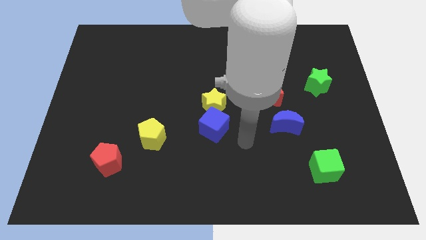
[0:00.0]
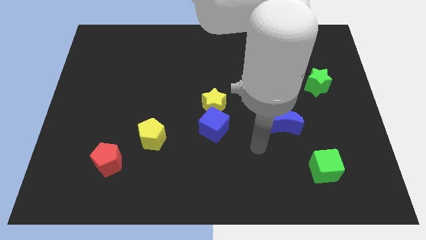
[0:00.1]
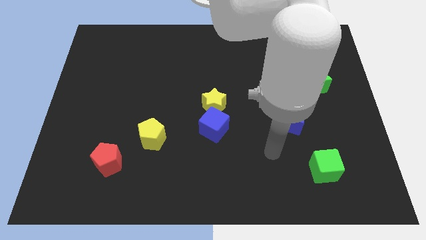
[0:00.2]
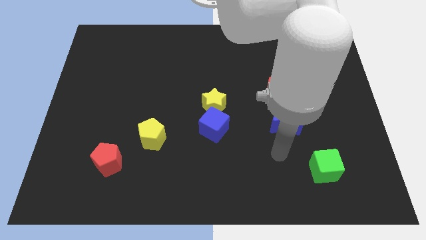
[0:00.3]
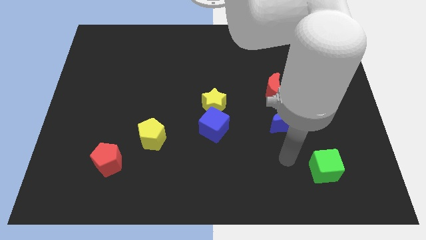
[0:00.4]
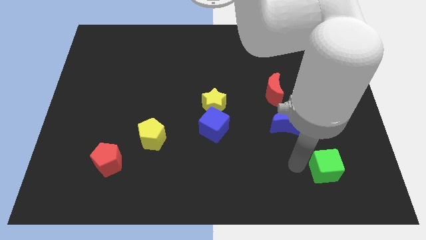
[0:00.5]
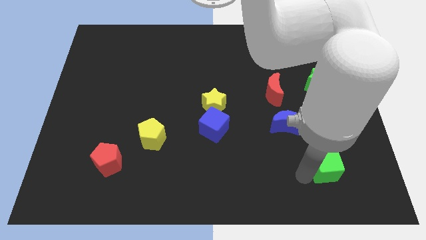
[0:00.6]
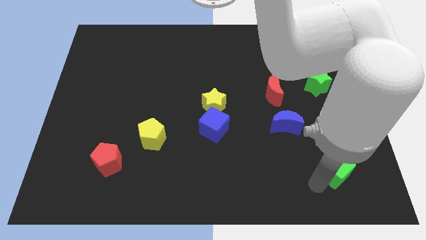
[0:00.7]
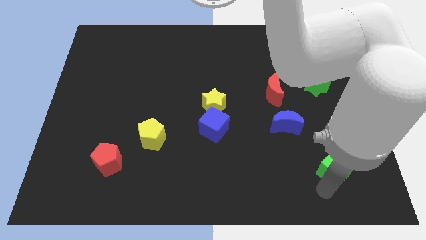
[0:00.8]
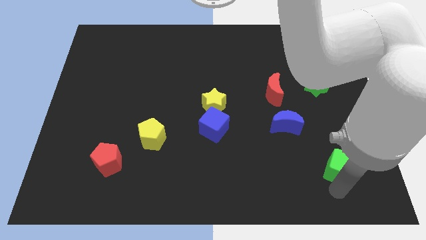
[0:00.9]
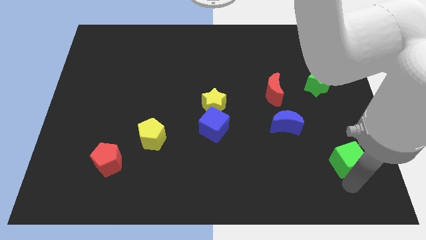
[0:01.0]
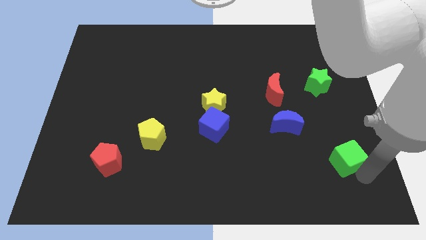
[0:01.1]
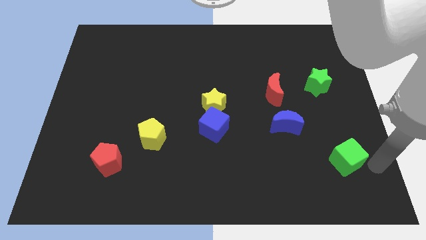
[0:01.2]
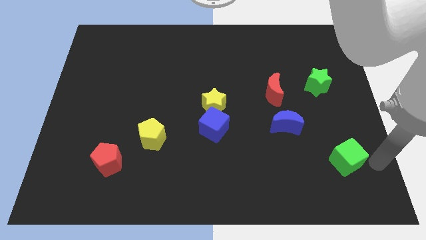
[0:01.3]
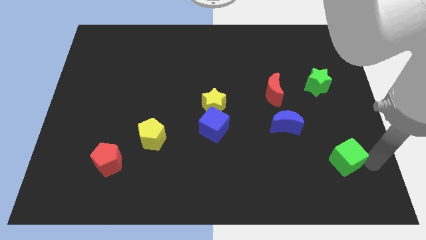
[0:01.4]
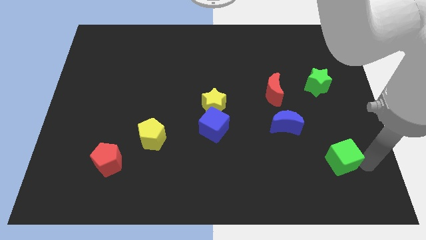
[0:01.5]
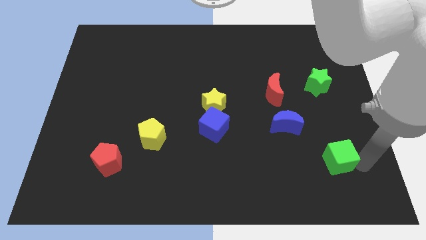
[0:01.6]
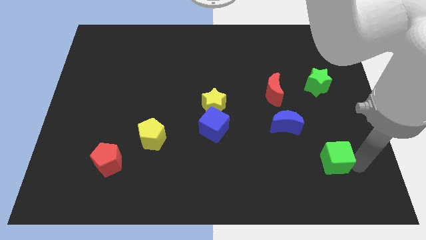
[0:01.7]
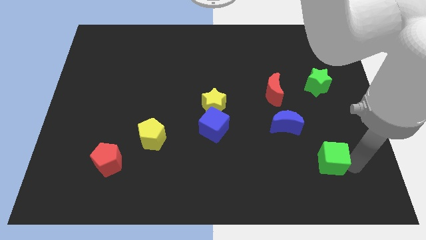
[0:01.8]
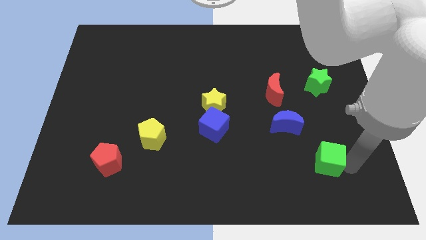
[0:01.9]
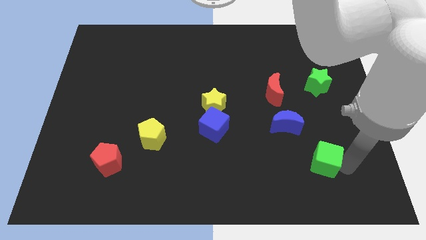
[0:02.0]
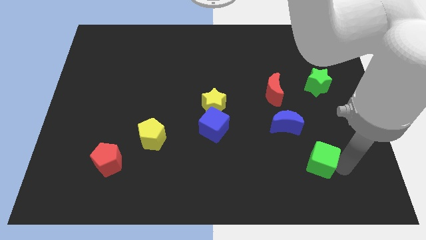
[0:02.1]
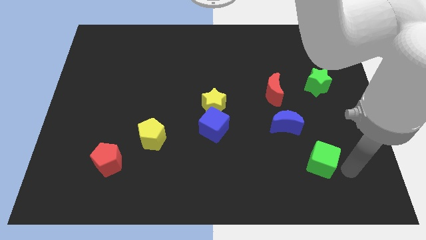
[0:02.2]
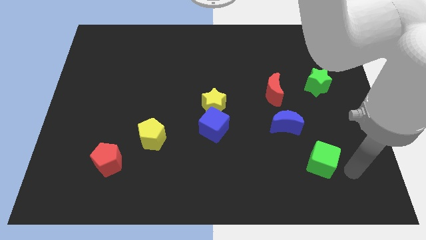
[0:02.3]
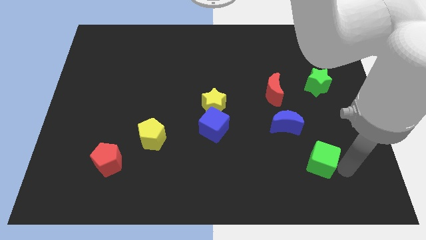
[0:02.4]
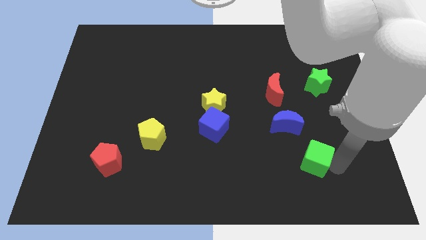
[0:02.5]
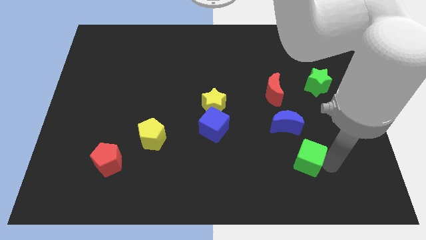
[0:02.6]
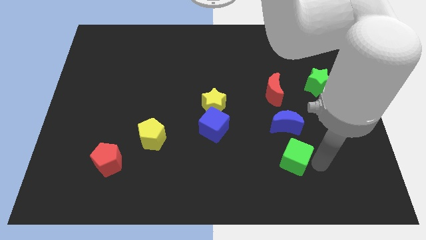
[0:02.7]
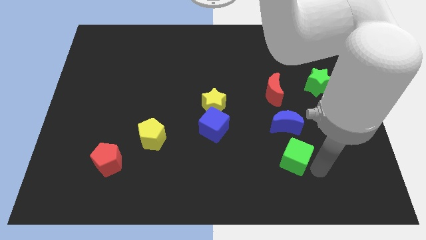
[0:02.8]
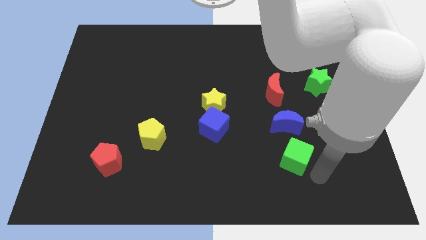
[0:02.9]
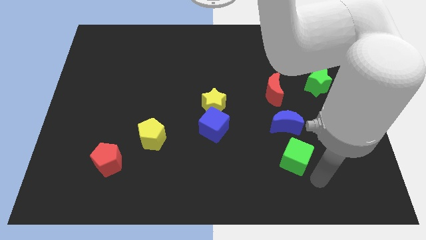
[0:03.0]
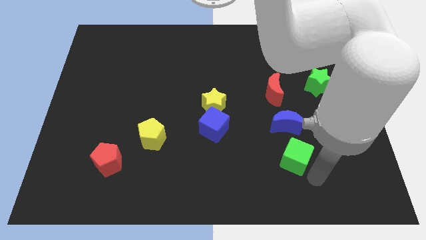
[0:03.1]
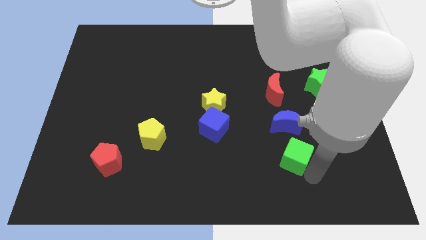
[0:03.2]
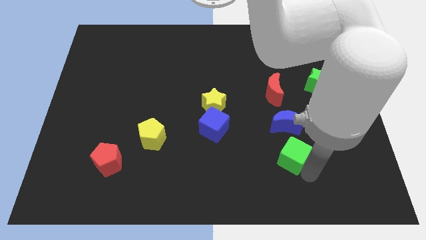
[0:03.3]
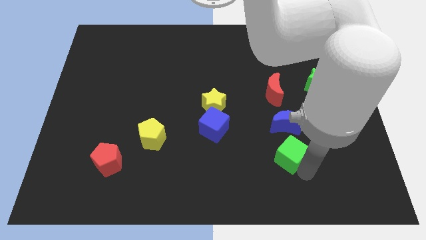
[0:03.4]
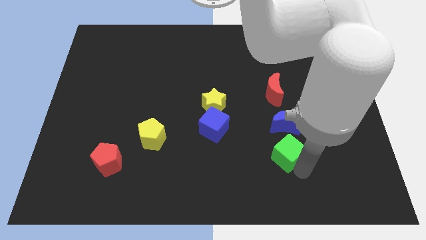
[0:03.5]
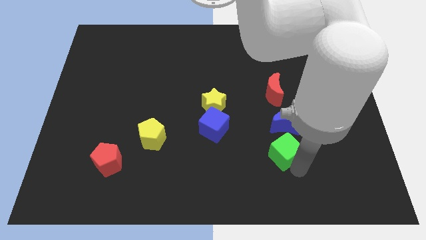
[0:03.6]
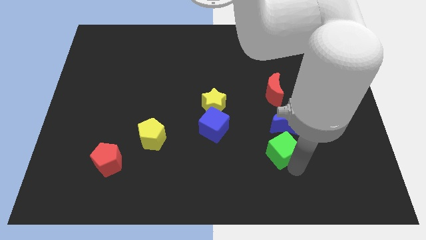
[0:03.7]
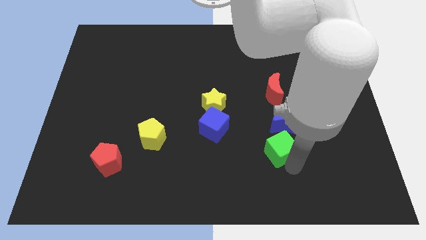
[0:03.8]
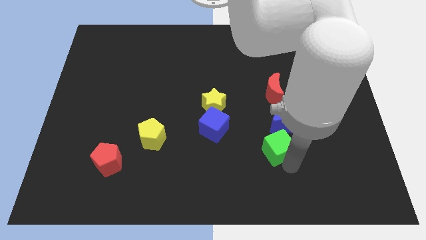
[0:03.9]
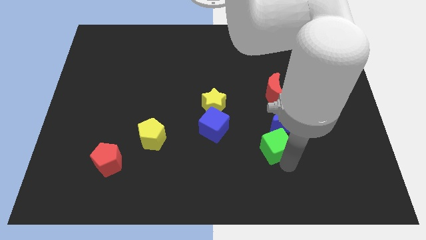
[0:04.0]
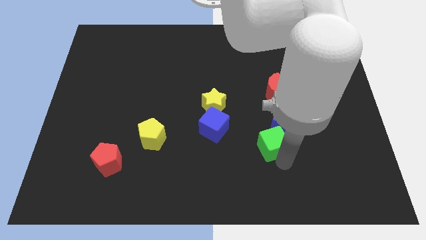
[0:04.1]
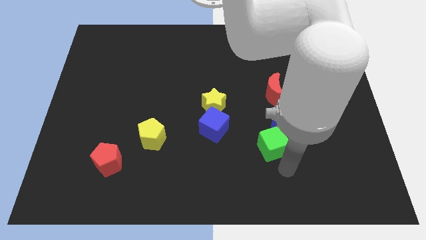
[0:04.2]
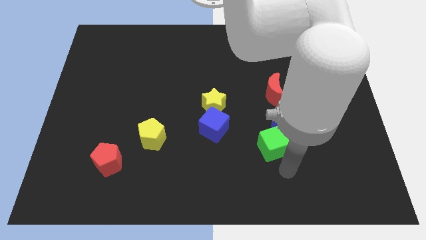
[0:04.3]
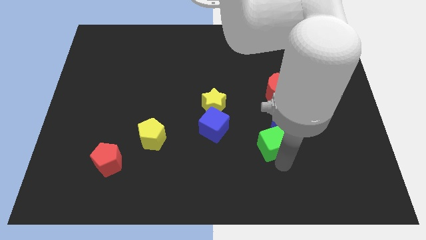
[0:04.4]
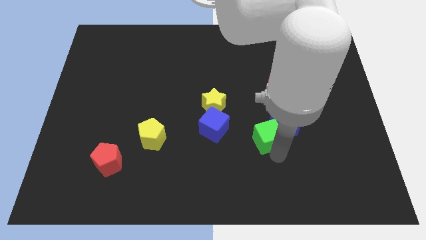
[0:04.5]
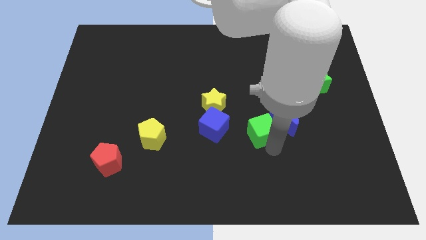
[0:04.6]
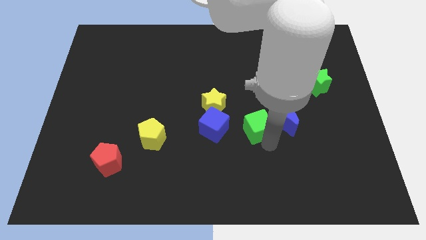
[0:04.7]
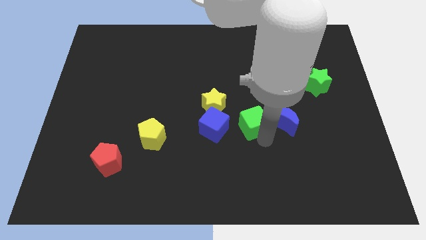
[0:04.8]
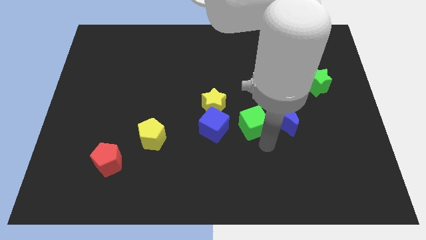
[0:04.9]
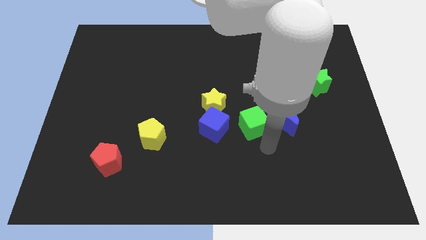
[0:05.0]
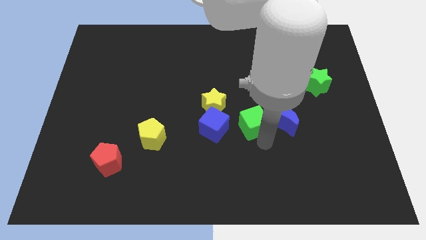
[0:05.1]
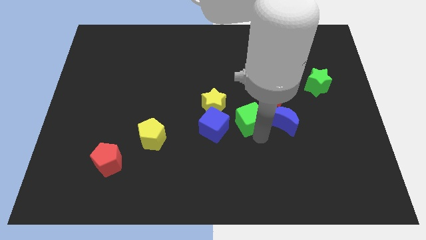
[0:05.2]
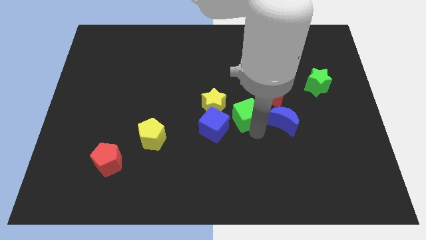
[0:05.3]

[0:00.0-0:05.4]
slide the green cube upwards and then left

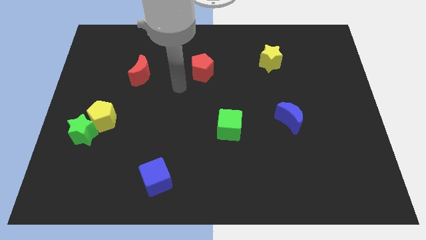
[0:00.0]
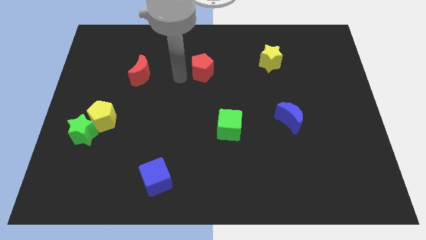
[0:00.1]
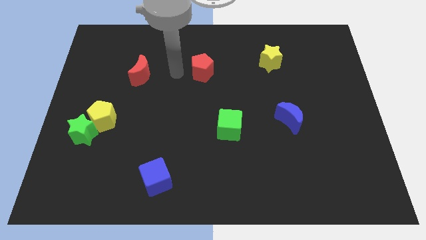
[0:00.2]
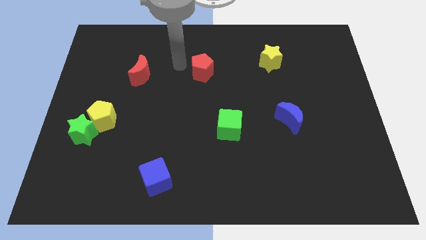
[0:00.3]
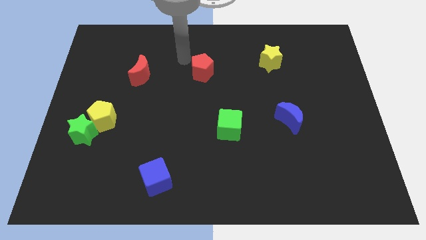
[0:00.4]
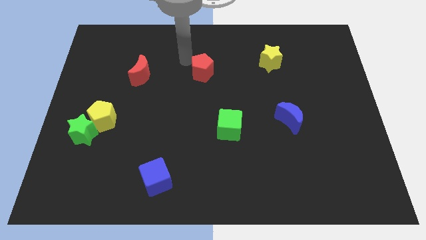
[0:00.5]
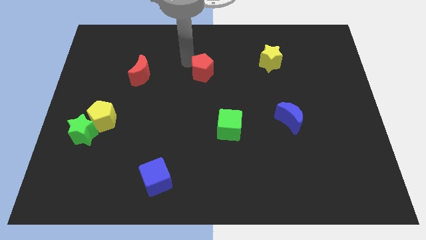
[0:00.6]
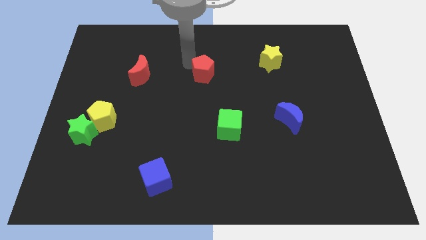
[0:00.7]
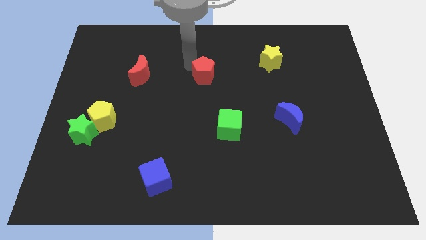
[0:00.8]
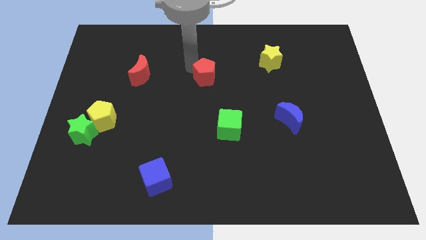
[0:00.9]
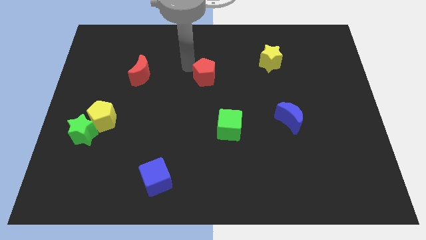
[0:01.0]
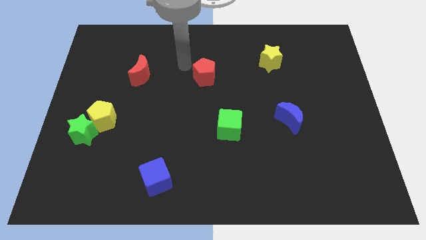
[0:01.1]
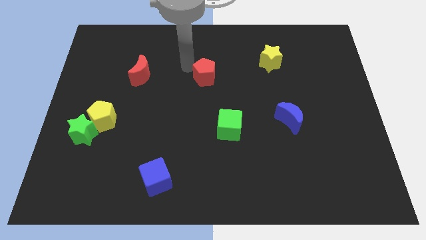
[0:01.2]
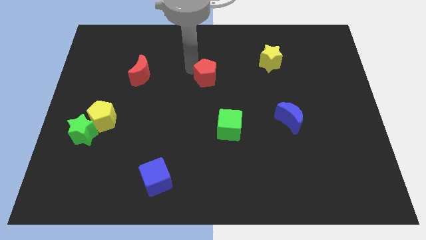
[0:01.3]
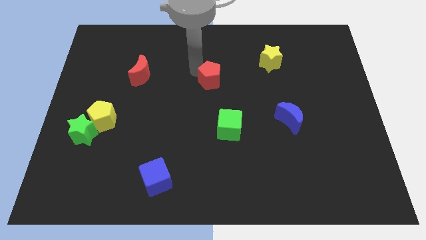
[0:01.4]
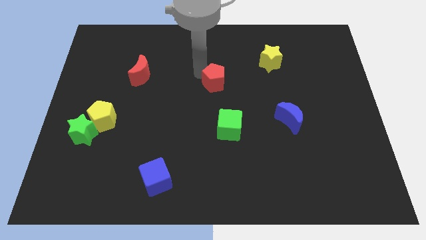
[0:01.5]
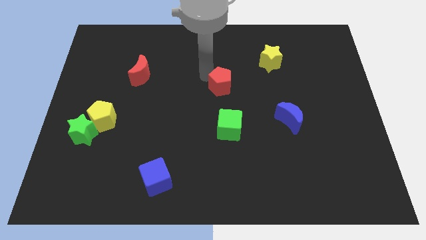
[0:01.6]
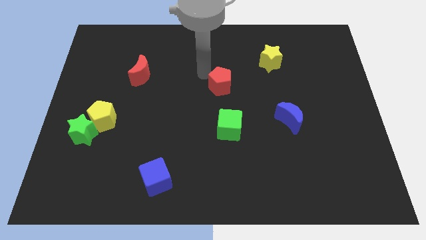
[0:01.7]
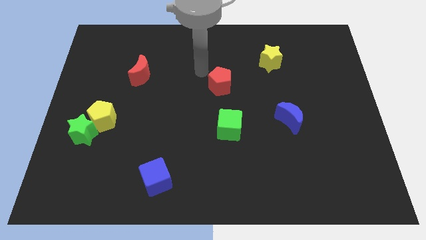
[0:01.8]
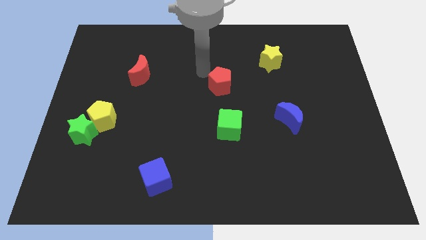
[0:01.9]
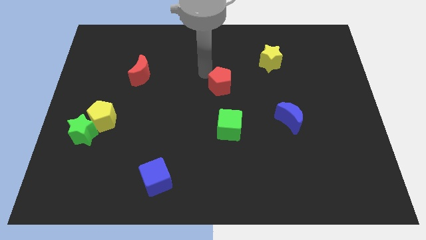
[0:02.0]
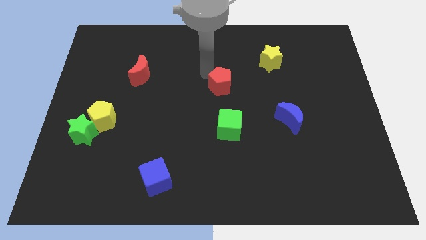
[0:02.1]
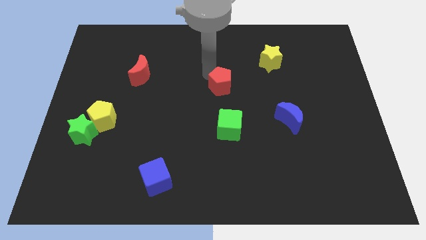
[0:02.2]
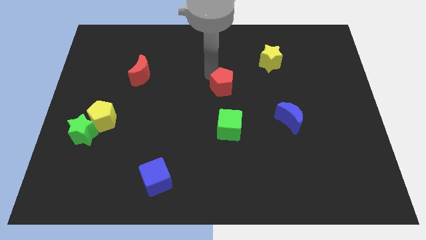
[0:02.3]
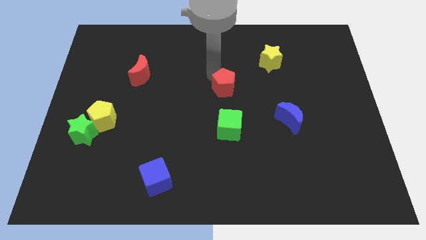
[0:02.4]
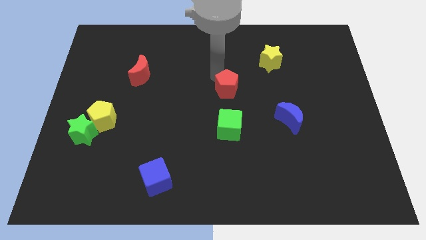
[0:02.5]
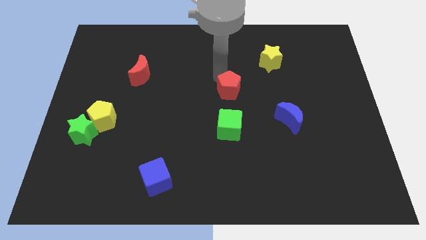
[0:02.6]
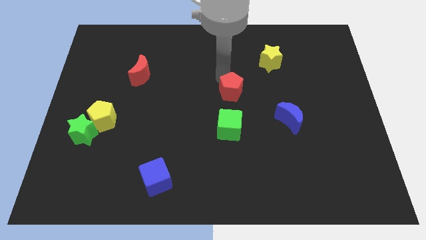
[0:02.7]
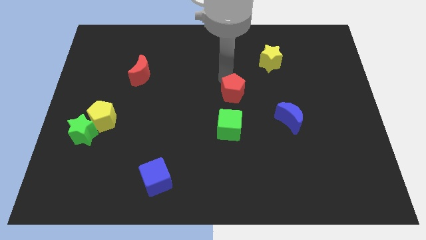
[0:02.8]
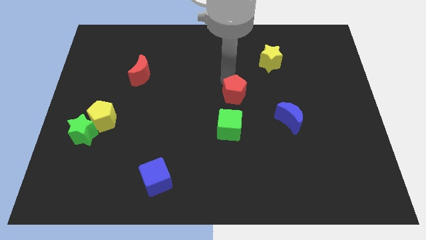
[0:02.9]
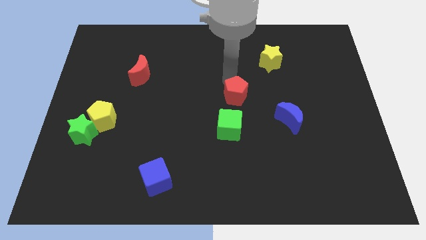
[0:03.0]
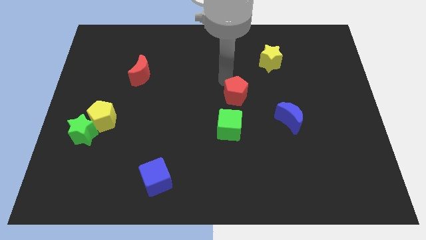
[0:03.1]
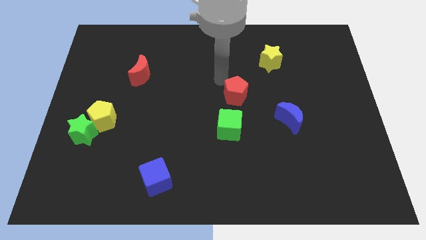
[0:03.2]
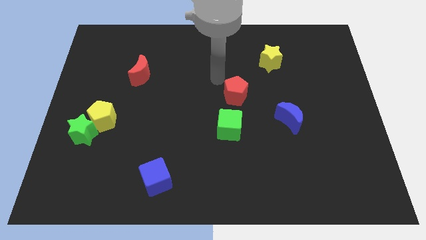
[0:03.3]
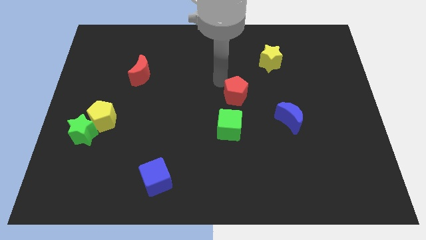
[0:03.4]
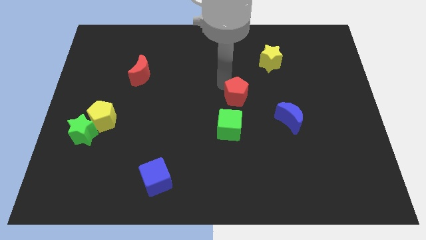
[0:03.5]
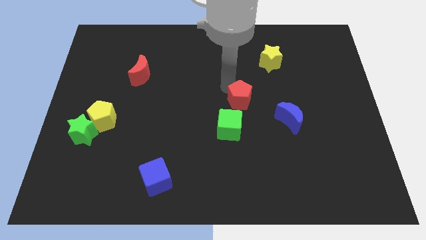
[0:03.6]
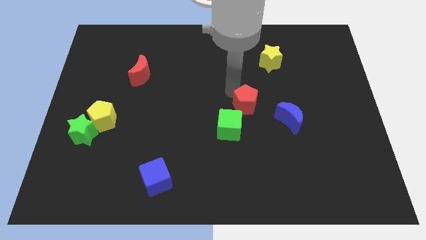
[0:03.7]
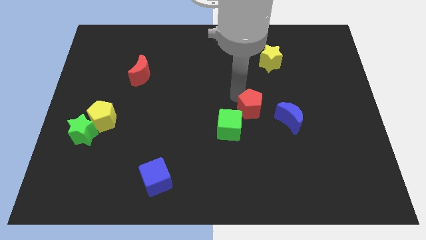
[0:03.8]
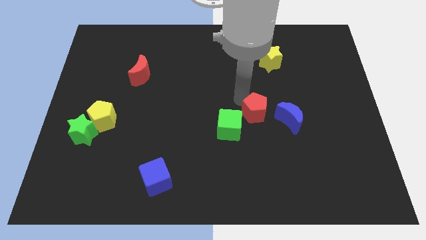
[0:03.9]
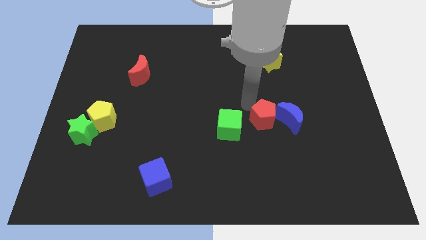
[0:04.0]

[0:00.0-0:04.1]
slide the red pentagon down and right diagonally
